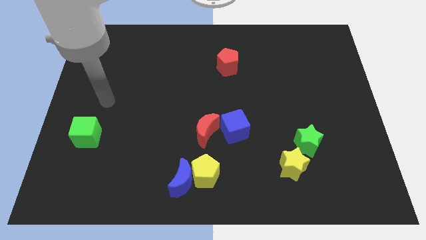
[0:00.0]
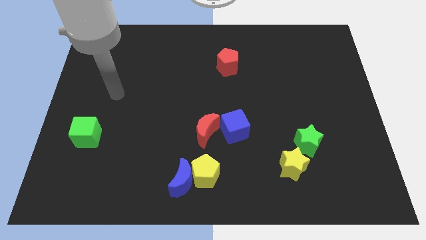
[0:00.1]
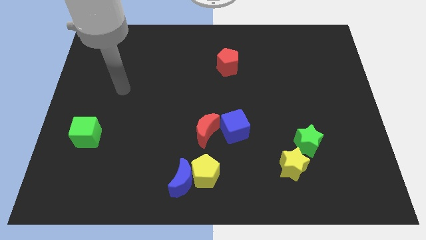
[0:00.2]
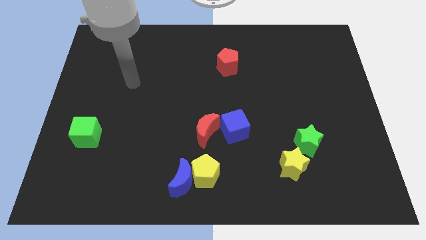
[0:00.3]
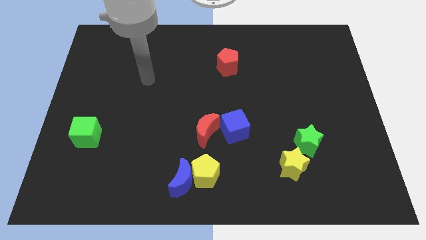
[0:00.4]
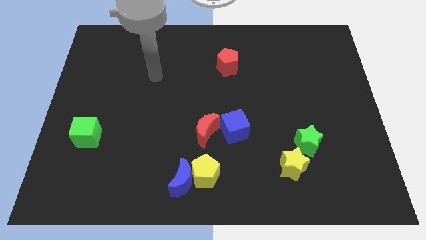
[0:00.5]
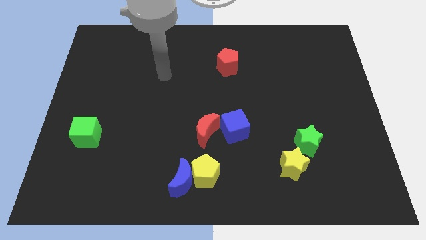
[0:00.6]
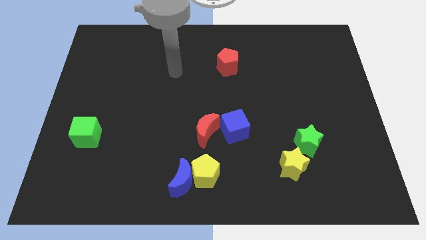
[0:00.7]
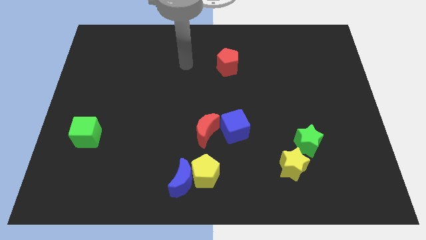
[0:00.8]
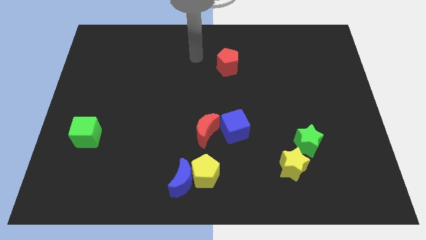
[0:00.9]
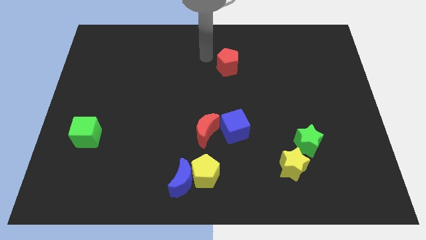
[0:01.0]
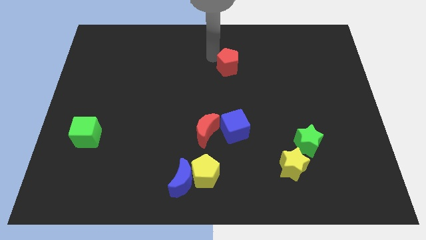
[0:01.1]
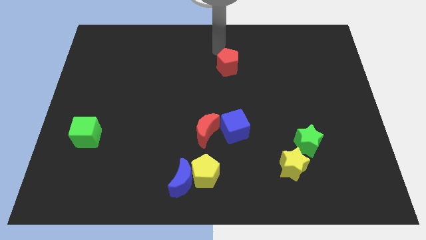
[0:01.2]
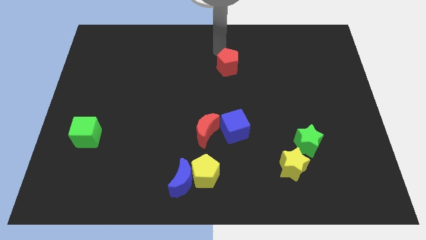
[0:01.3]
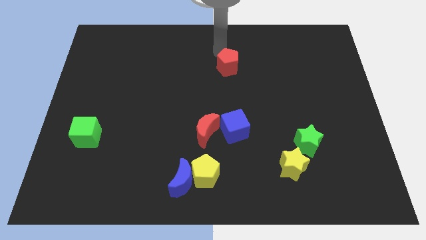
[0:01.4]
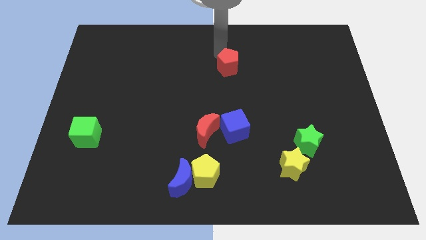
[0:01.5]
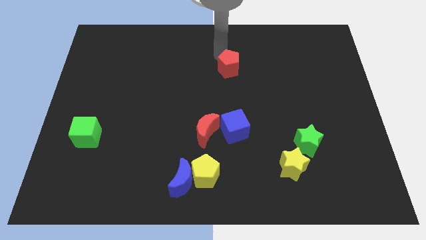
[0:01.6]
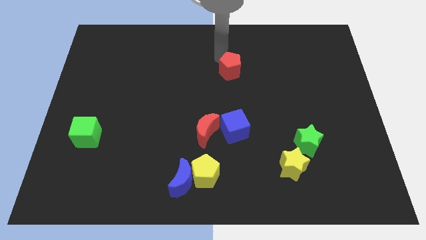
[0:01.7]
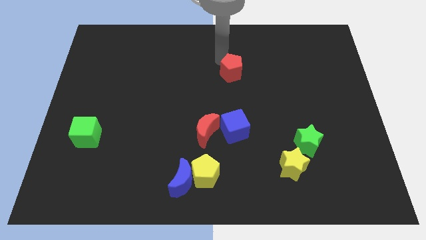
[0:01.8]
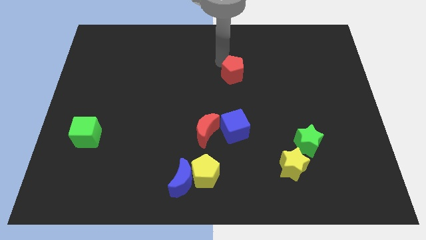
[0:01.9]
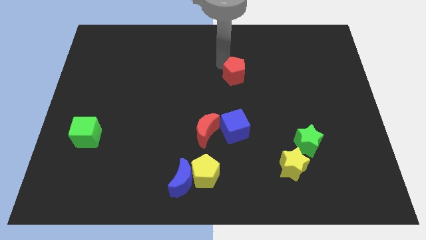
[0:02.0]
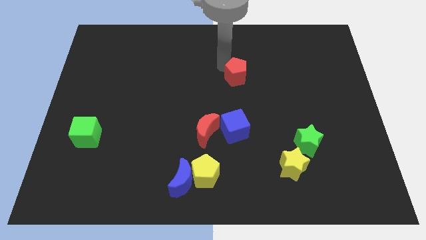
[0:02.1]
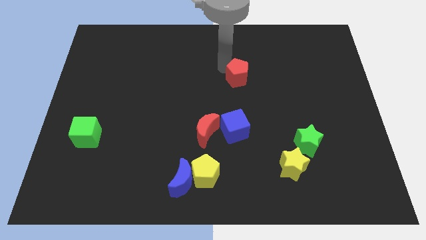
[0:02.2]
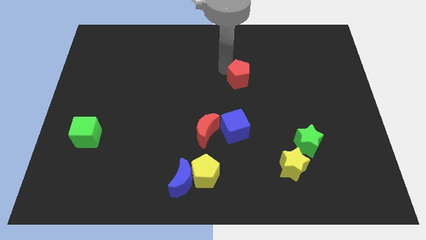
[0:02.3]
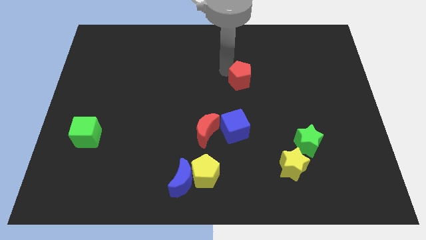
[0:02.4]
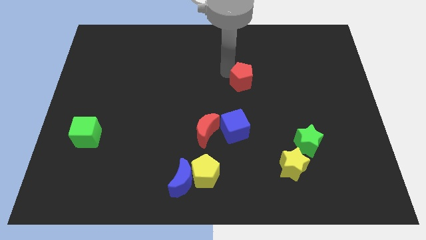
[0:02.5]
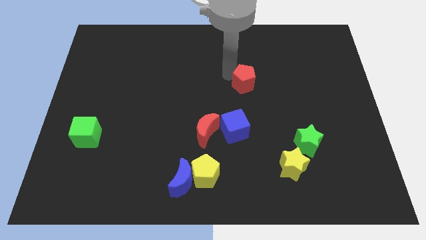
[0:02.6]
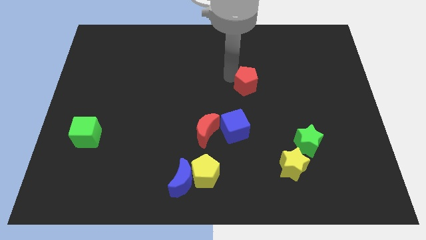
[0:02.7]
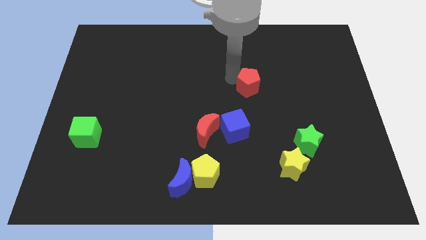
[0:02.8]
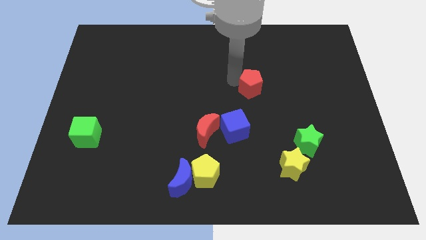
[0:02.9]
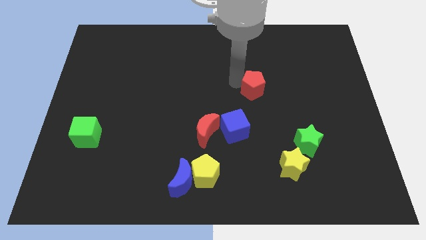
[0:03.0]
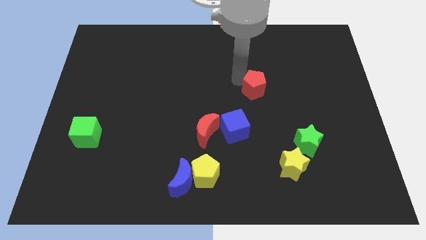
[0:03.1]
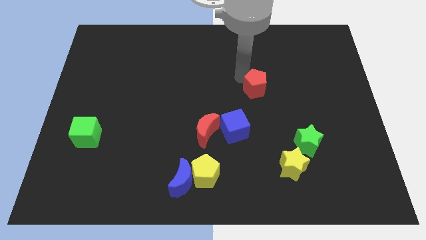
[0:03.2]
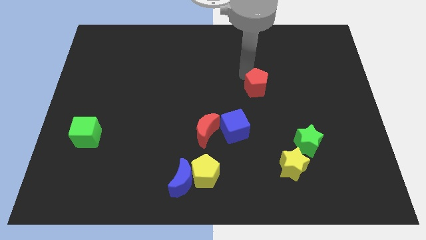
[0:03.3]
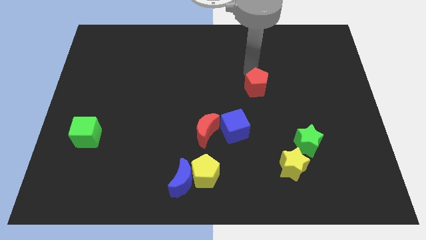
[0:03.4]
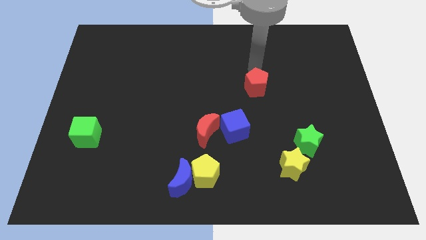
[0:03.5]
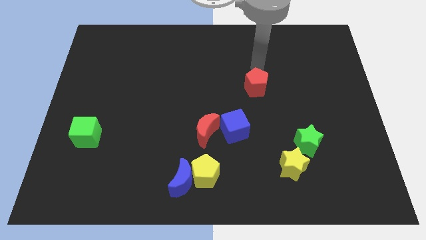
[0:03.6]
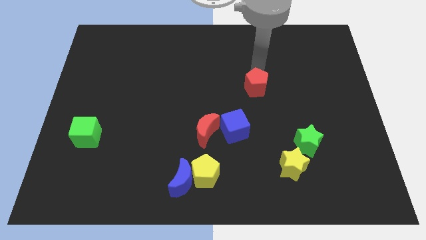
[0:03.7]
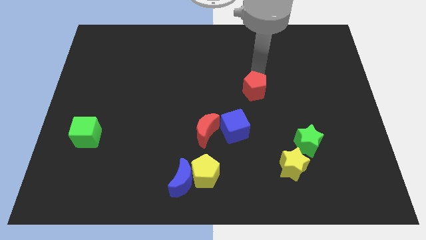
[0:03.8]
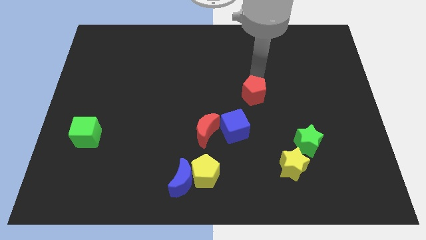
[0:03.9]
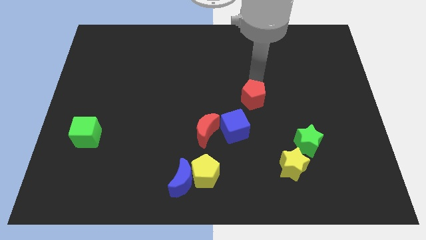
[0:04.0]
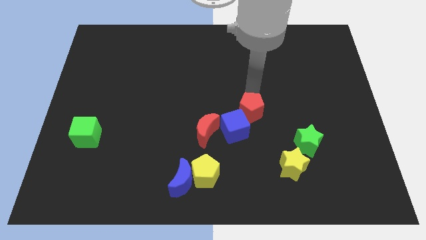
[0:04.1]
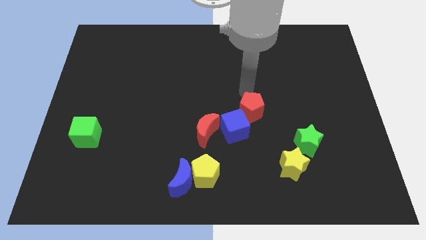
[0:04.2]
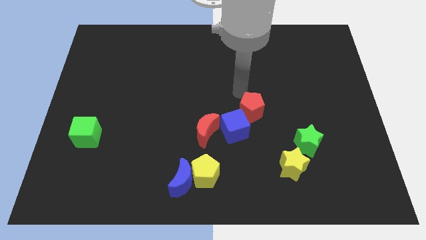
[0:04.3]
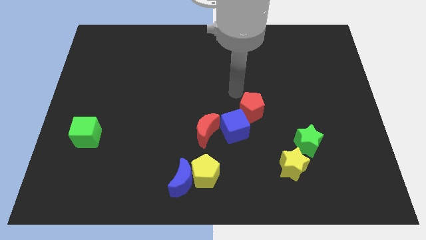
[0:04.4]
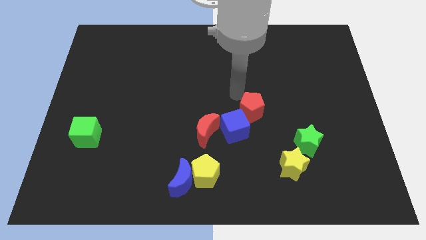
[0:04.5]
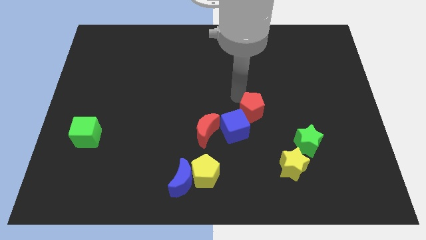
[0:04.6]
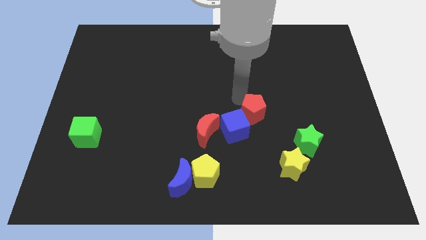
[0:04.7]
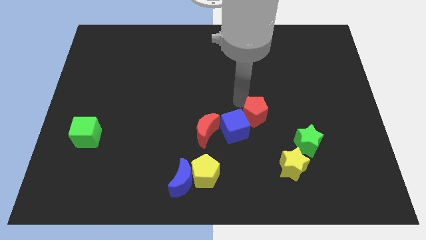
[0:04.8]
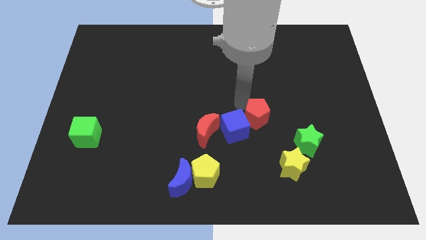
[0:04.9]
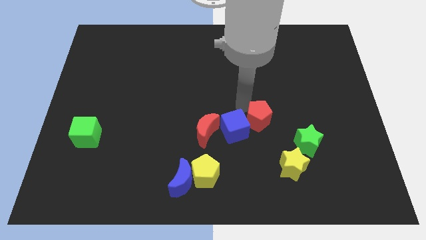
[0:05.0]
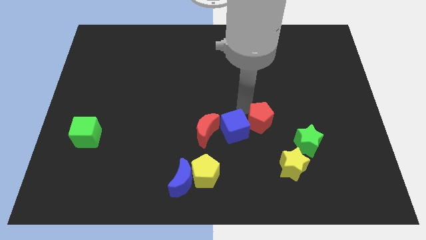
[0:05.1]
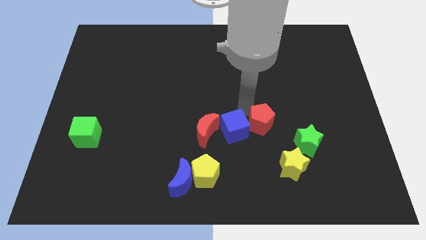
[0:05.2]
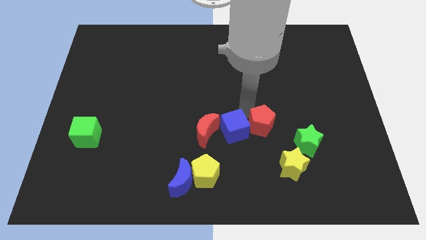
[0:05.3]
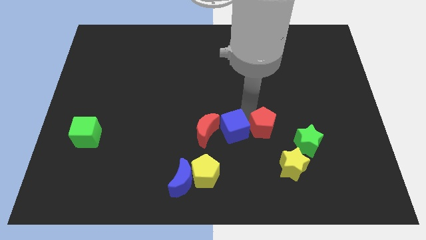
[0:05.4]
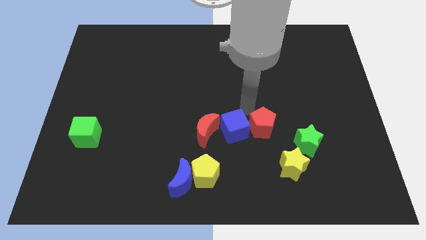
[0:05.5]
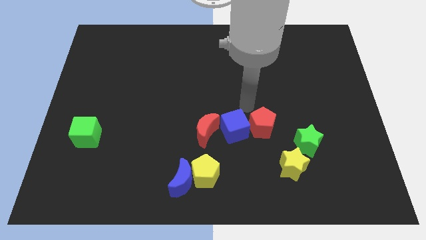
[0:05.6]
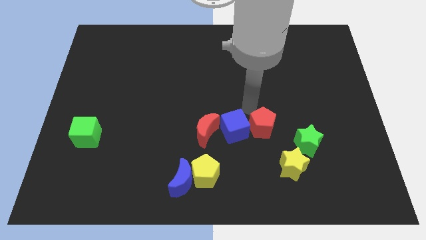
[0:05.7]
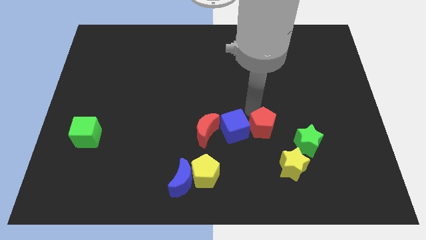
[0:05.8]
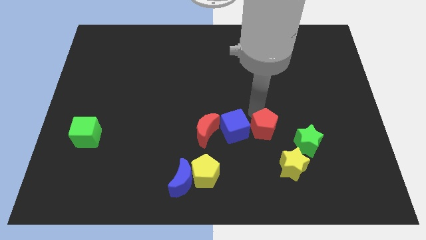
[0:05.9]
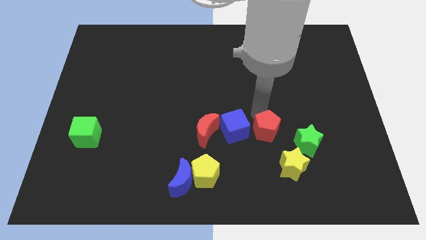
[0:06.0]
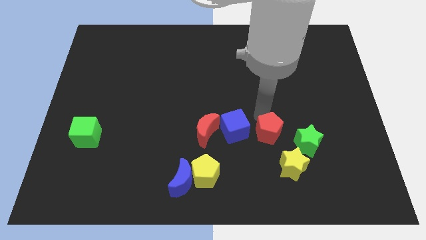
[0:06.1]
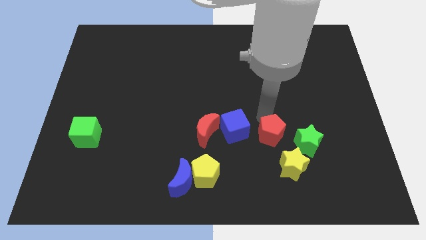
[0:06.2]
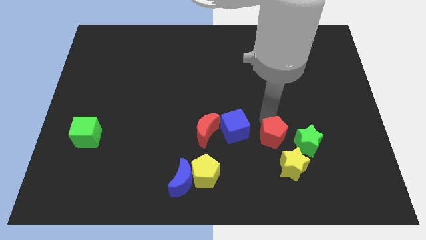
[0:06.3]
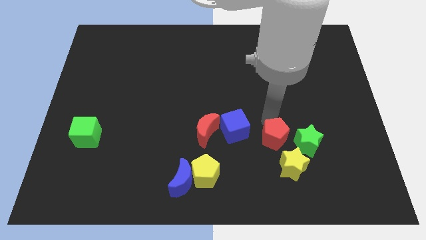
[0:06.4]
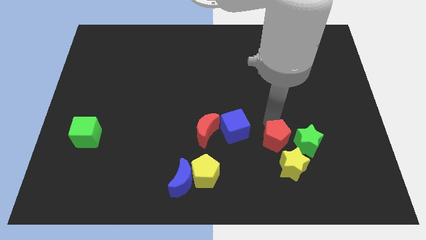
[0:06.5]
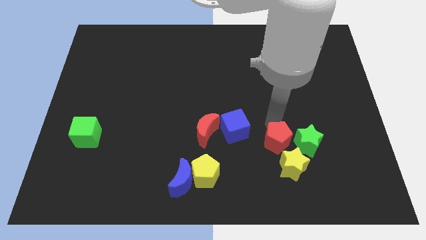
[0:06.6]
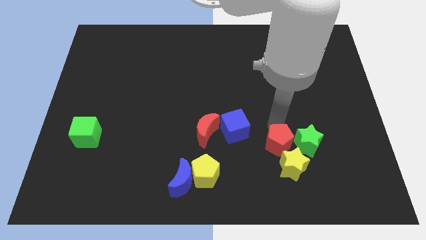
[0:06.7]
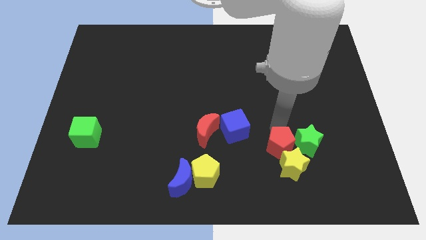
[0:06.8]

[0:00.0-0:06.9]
push the red pentagon close to the yellow star
